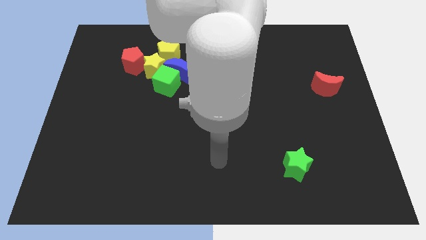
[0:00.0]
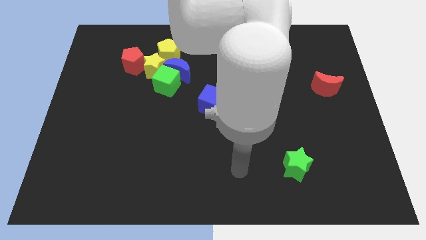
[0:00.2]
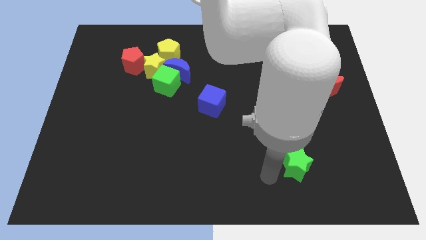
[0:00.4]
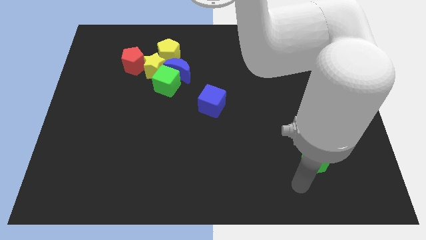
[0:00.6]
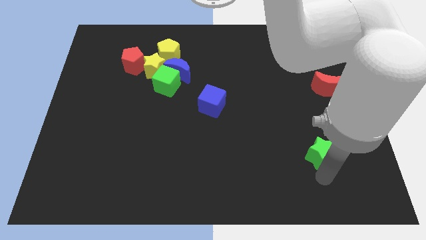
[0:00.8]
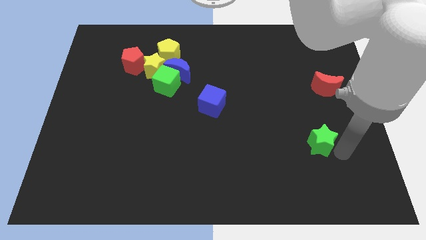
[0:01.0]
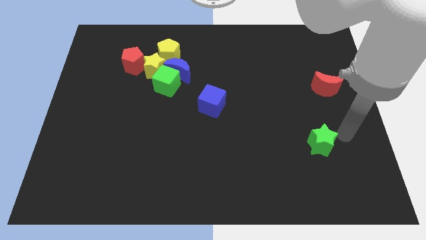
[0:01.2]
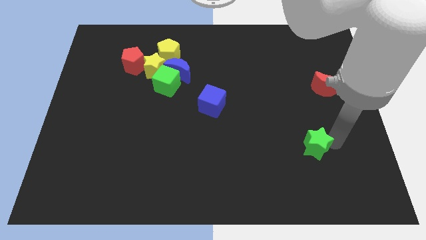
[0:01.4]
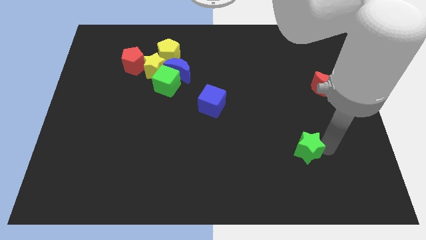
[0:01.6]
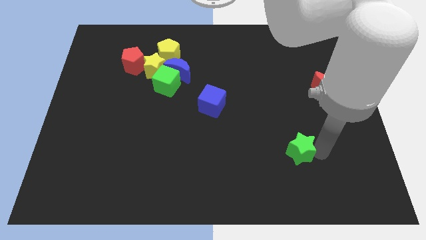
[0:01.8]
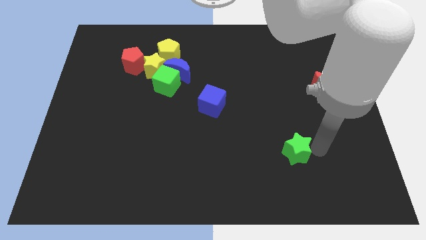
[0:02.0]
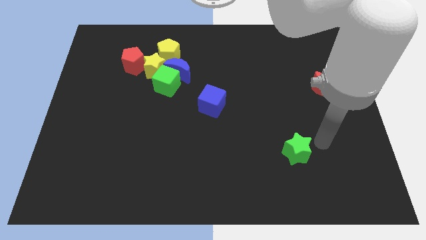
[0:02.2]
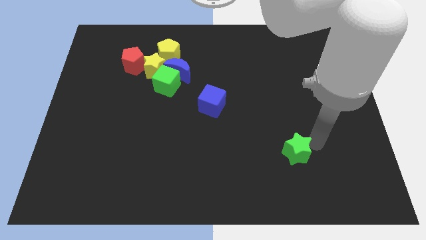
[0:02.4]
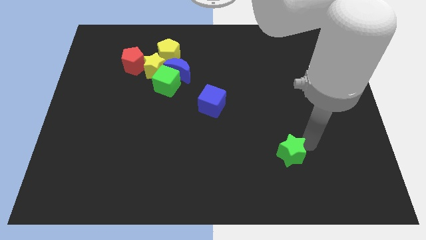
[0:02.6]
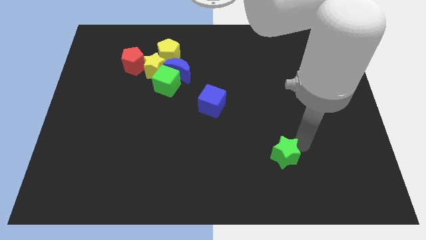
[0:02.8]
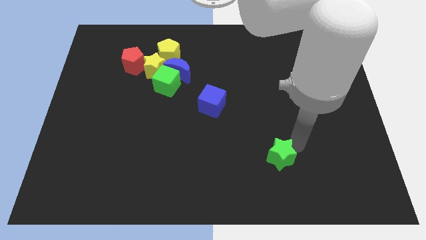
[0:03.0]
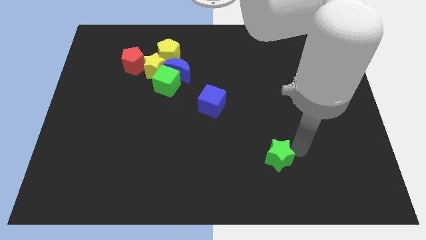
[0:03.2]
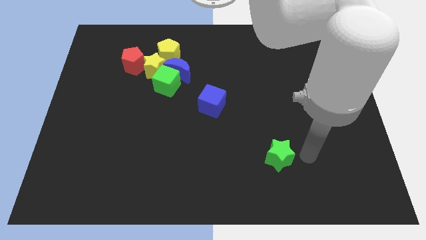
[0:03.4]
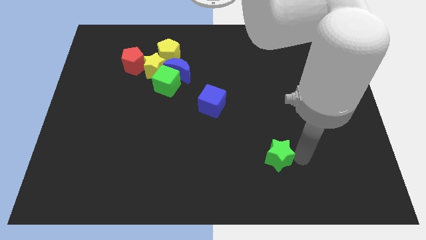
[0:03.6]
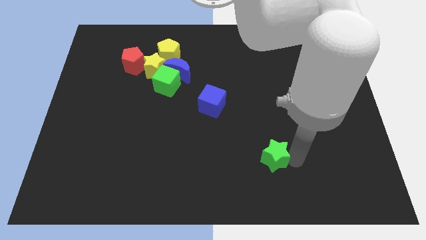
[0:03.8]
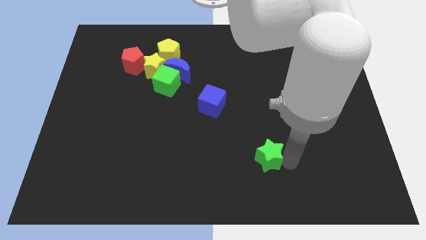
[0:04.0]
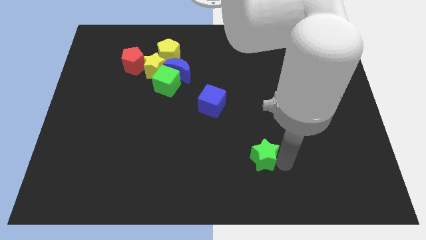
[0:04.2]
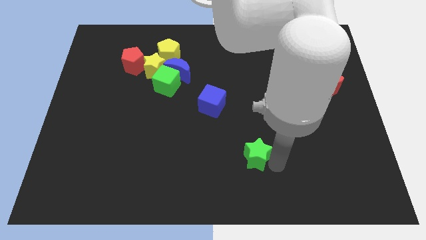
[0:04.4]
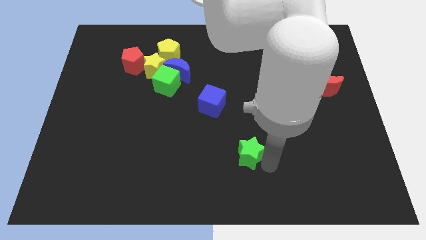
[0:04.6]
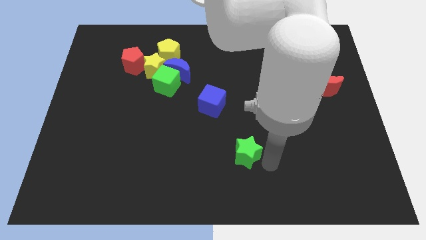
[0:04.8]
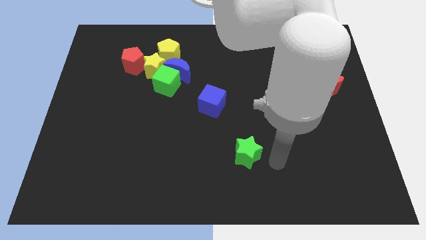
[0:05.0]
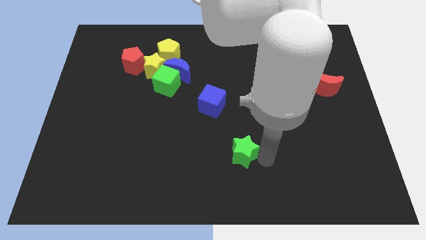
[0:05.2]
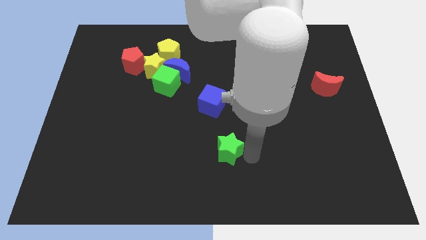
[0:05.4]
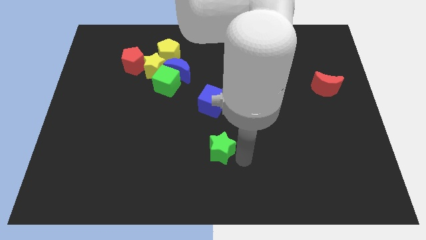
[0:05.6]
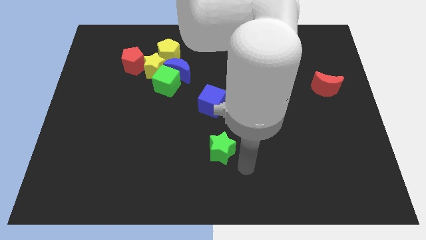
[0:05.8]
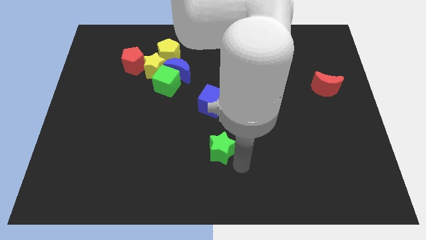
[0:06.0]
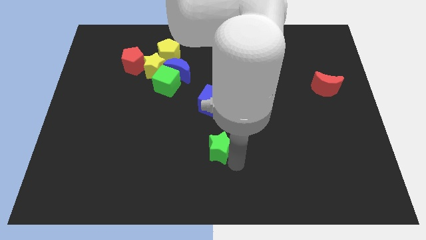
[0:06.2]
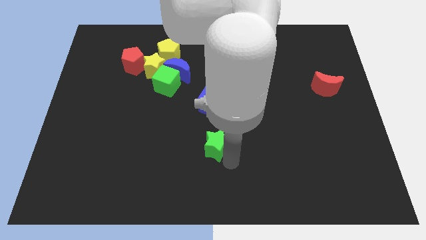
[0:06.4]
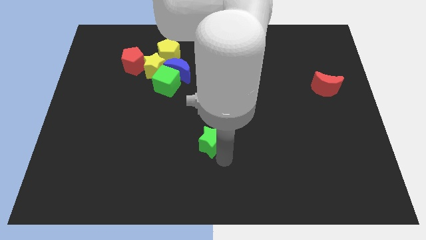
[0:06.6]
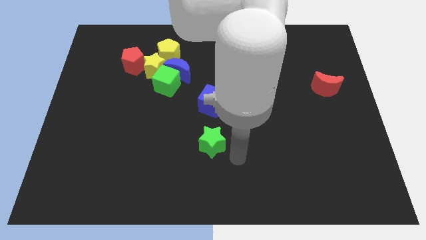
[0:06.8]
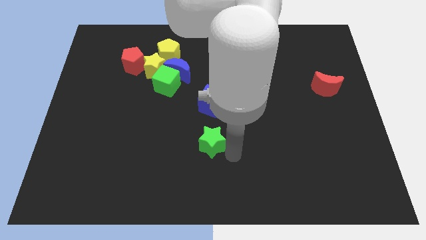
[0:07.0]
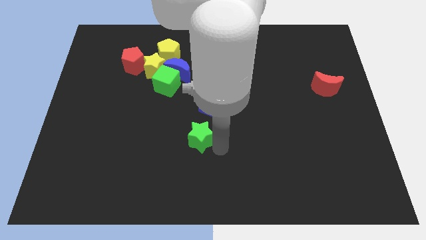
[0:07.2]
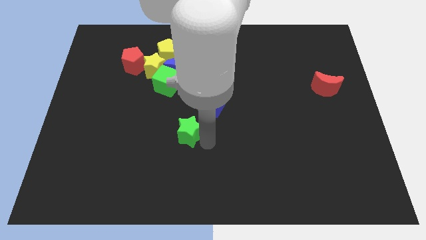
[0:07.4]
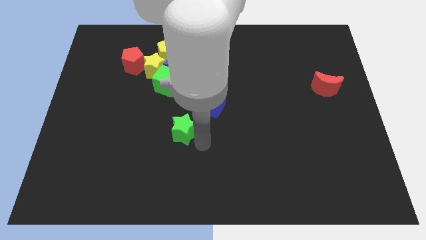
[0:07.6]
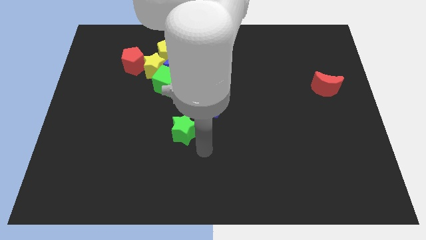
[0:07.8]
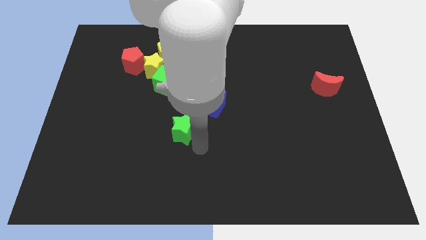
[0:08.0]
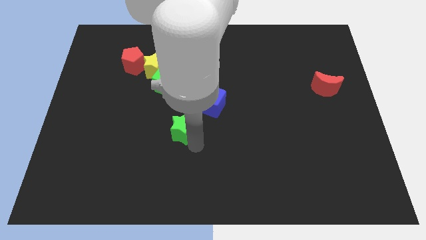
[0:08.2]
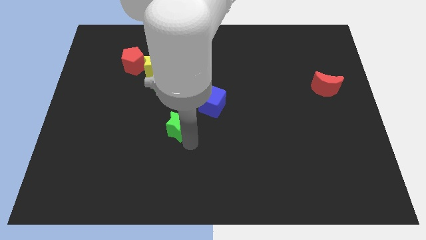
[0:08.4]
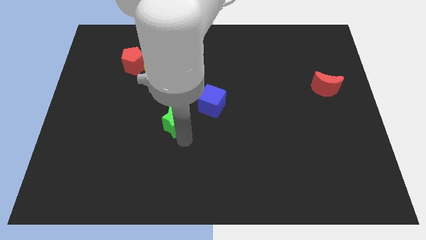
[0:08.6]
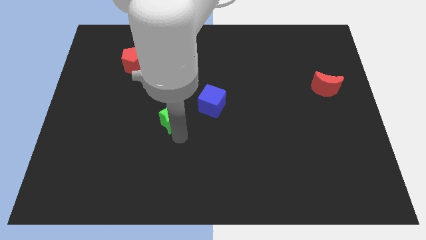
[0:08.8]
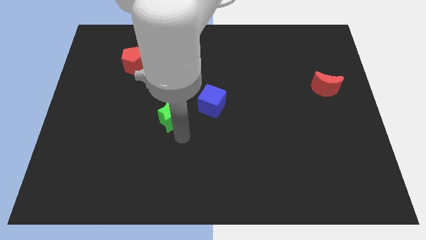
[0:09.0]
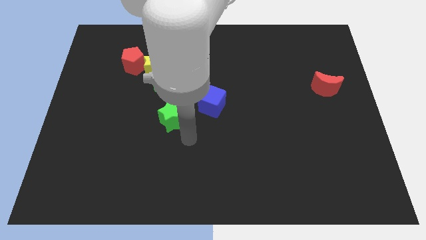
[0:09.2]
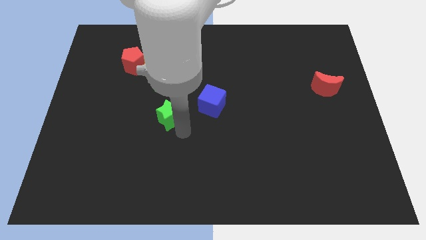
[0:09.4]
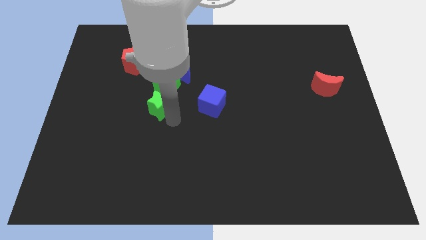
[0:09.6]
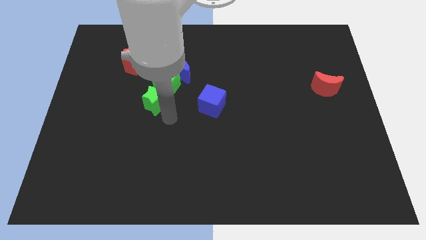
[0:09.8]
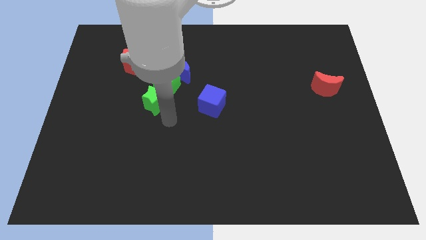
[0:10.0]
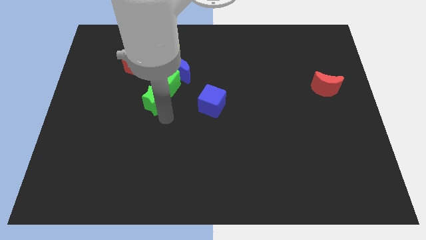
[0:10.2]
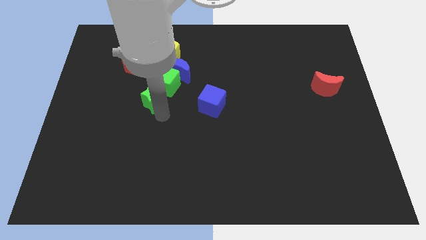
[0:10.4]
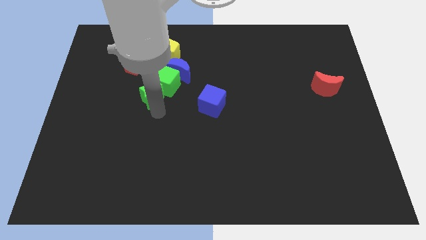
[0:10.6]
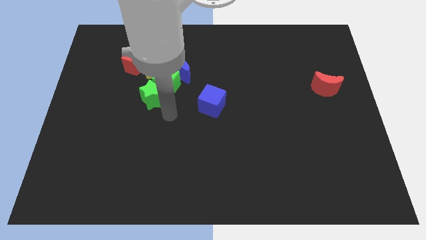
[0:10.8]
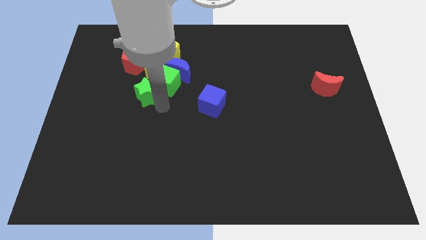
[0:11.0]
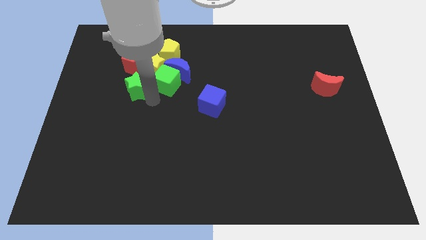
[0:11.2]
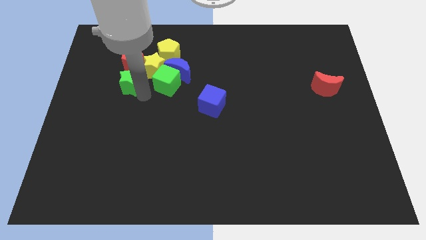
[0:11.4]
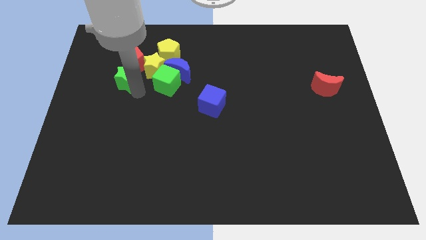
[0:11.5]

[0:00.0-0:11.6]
put the green star close to the red pentagon

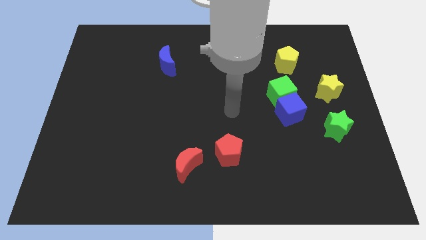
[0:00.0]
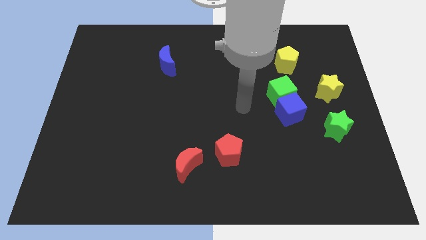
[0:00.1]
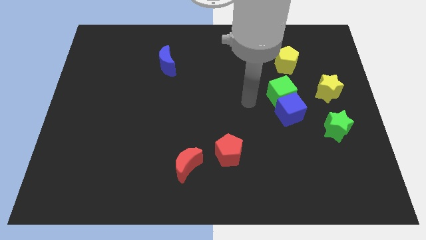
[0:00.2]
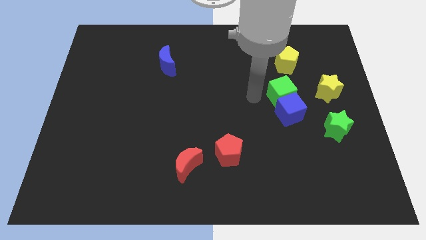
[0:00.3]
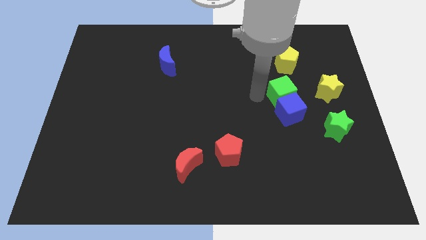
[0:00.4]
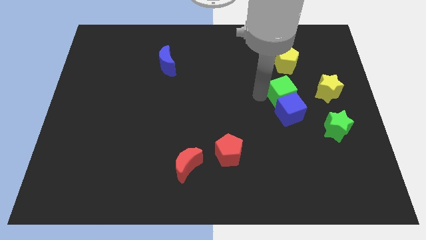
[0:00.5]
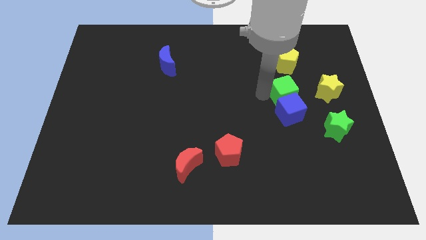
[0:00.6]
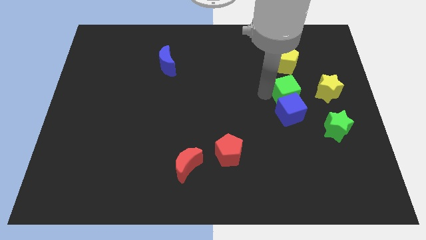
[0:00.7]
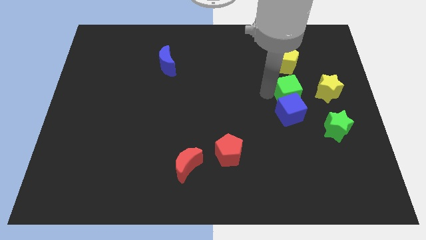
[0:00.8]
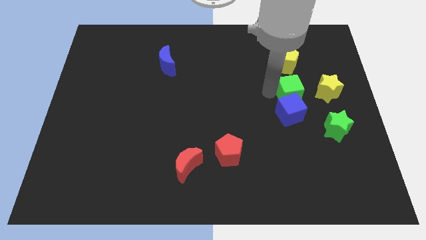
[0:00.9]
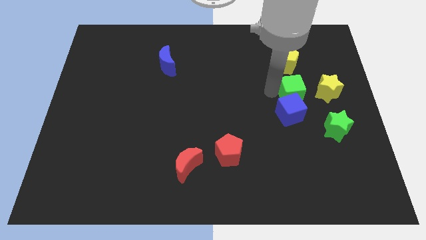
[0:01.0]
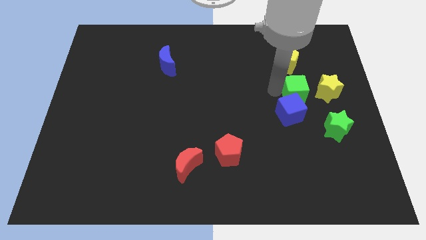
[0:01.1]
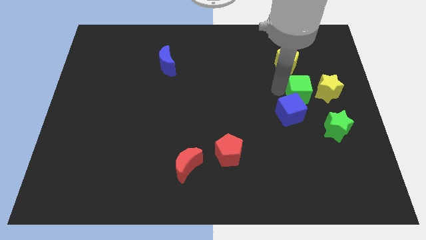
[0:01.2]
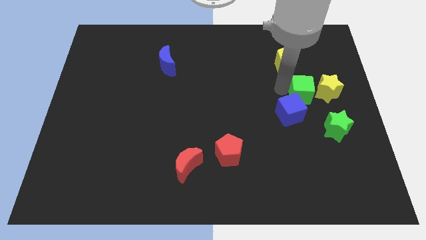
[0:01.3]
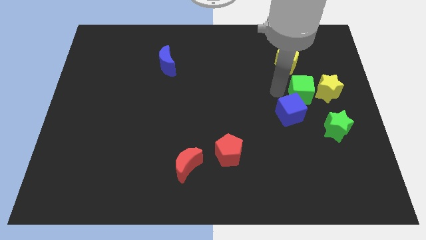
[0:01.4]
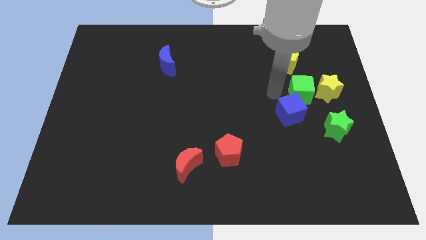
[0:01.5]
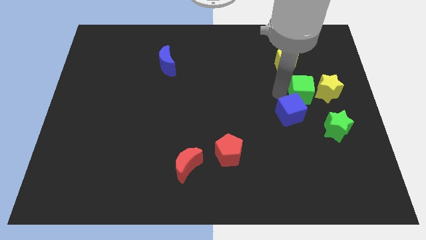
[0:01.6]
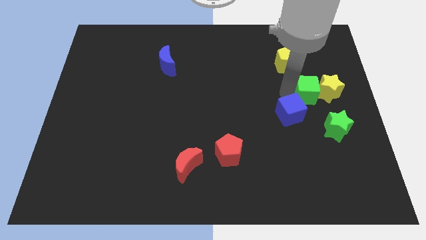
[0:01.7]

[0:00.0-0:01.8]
push the green cube next to the yellow star
